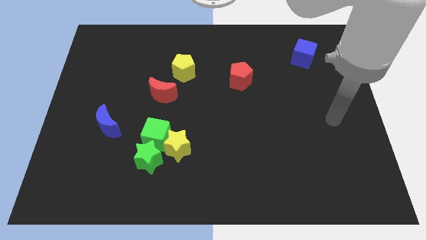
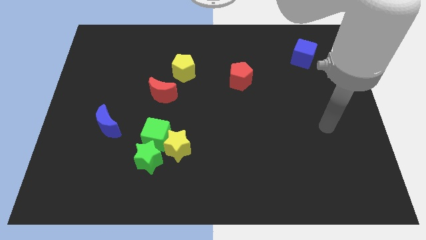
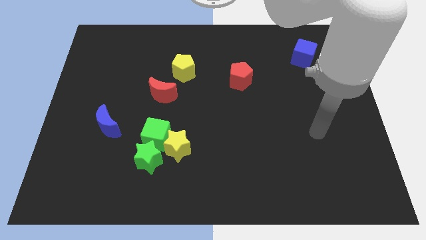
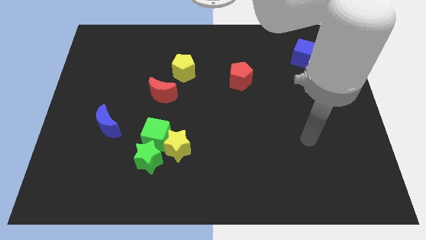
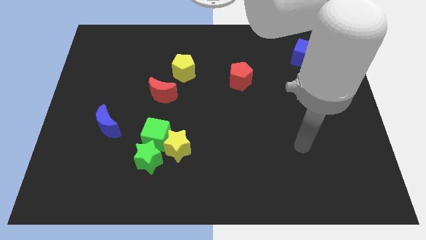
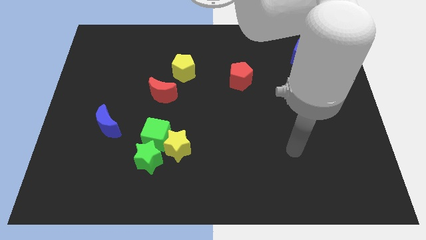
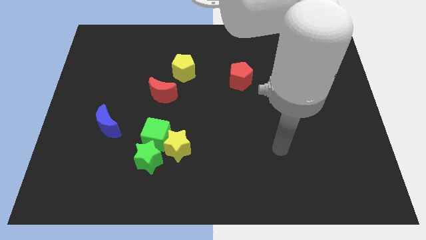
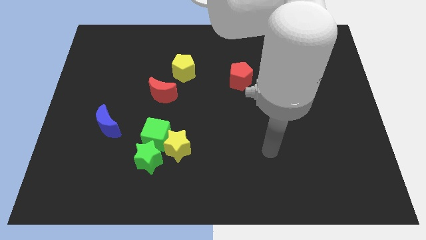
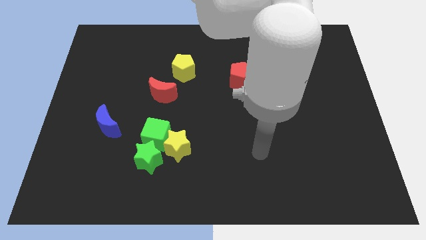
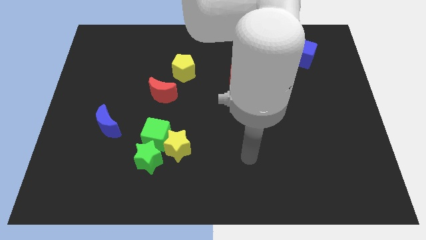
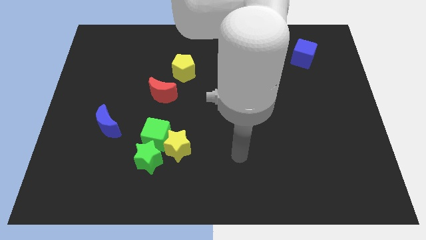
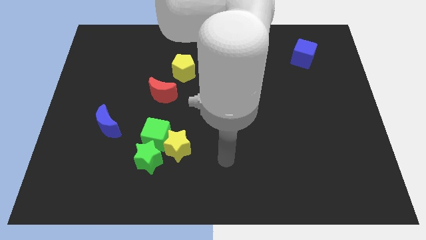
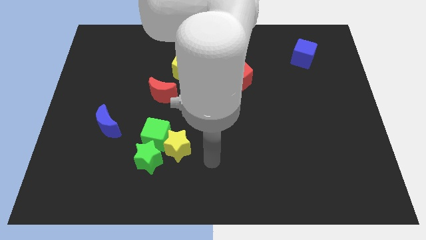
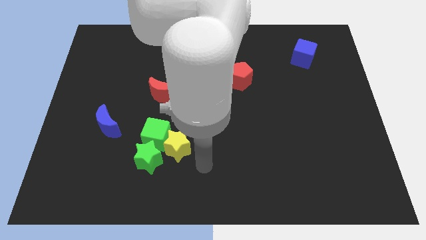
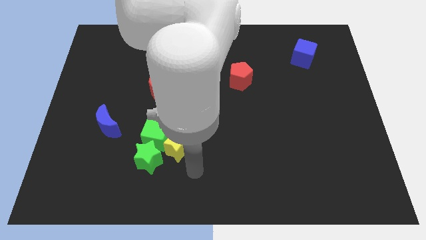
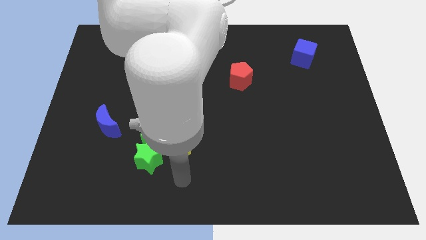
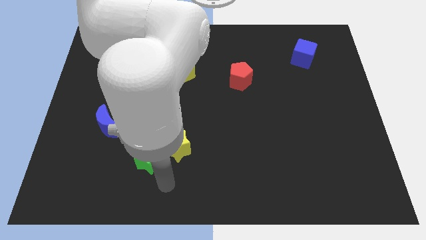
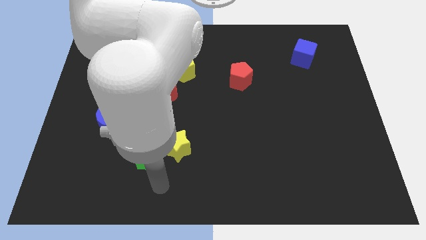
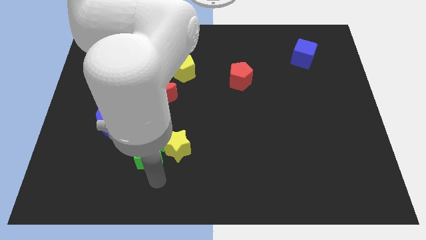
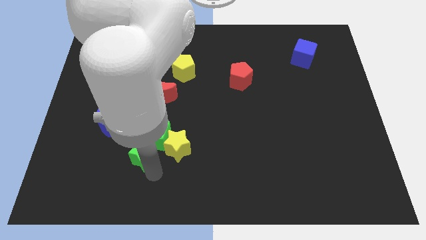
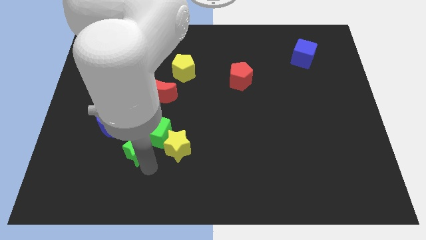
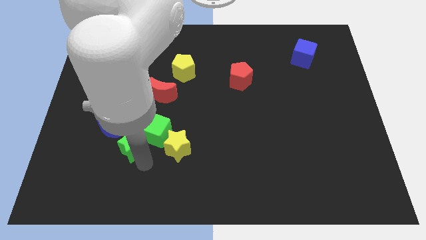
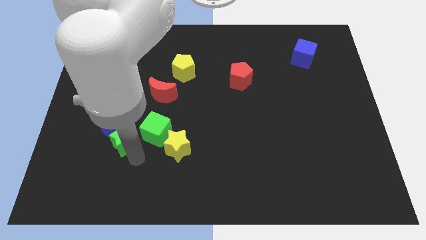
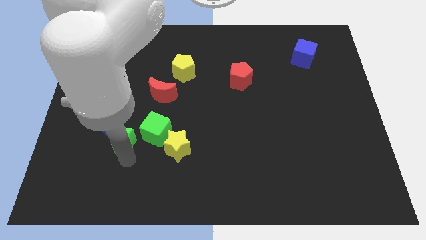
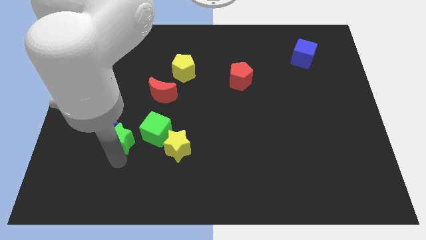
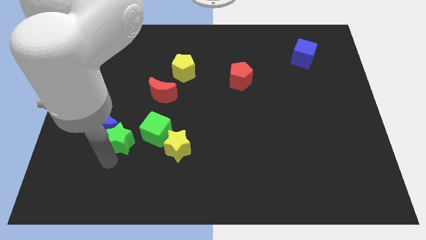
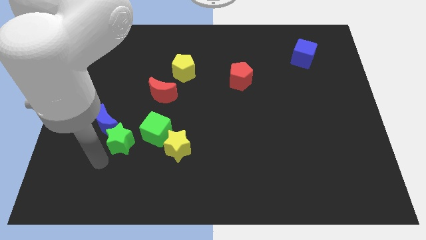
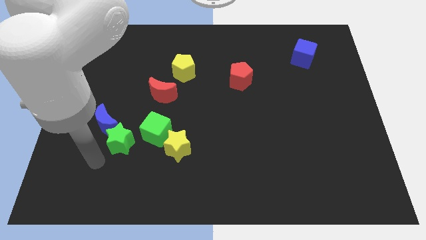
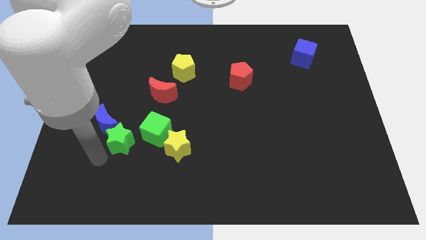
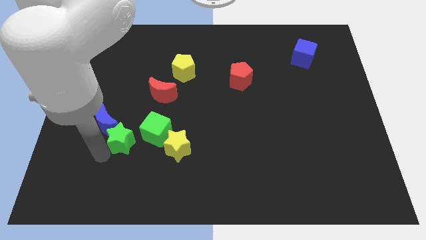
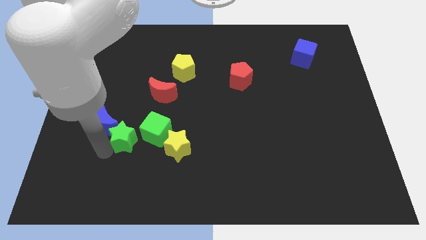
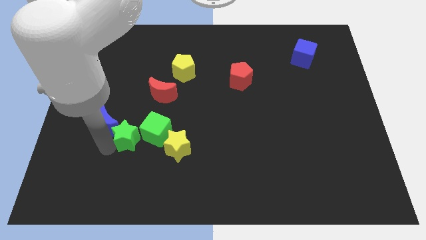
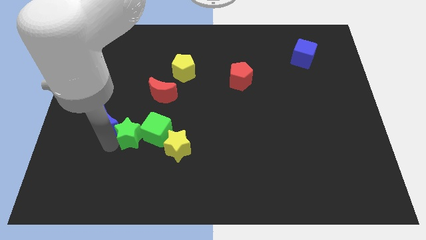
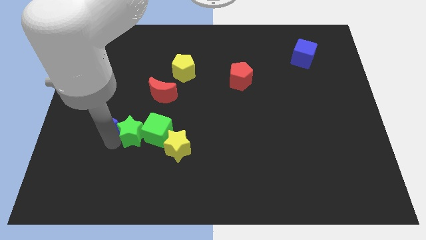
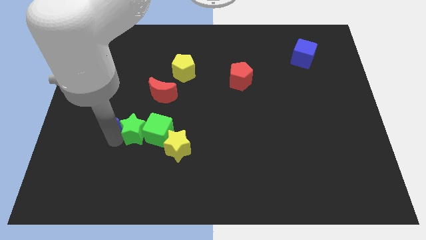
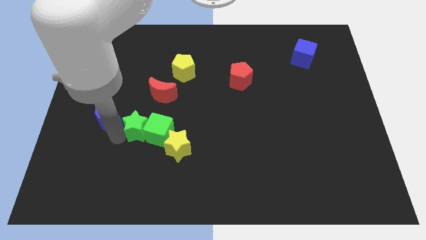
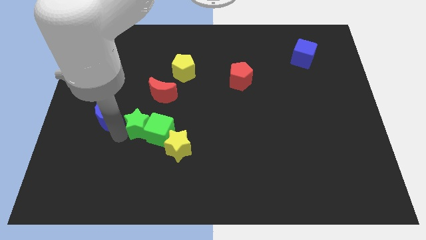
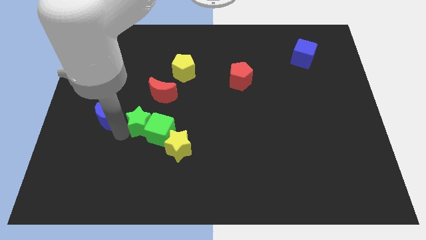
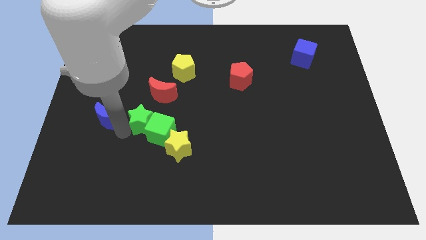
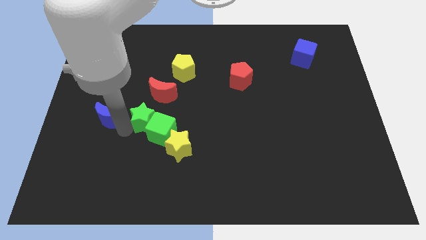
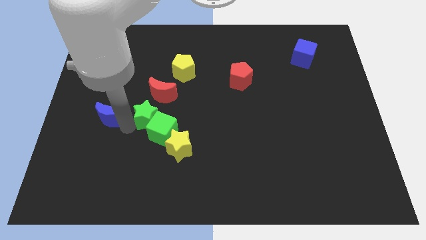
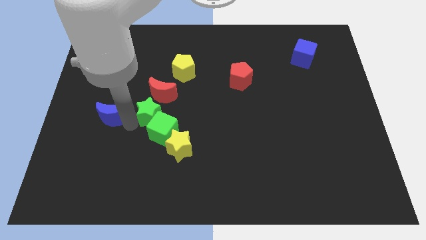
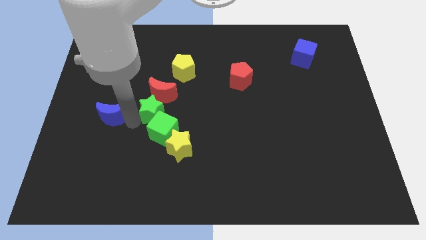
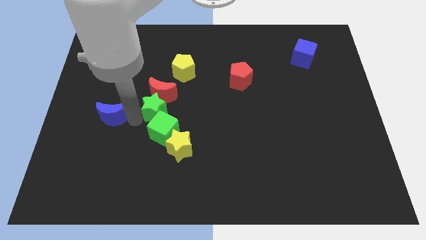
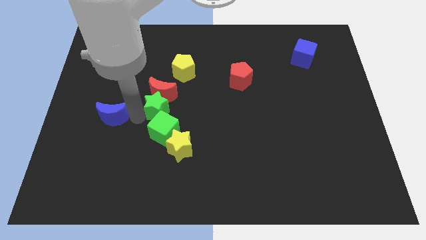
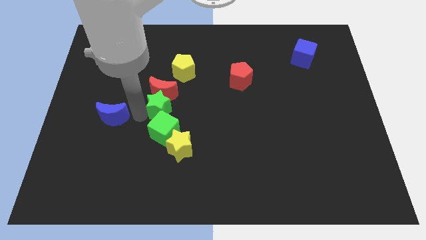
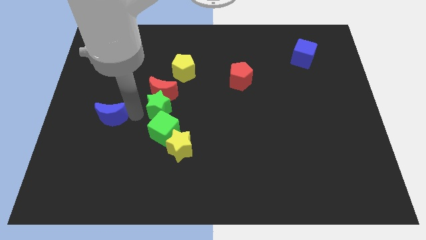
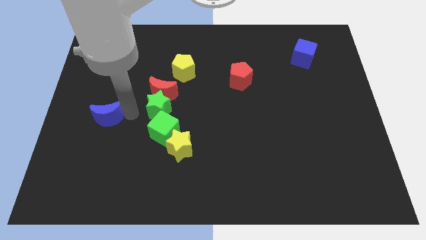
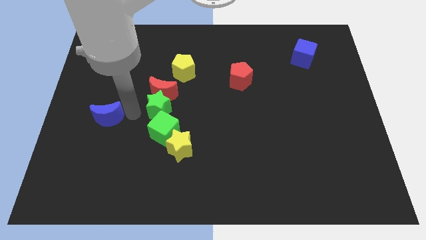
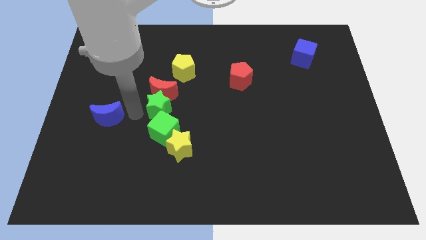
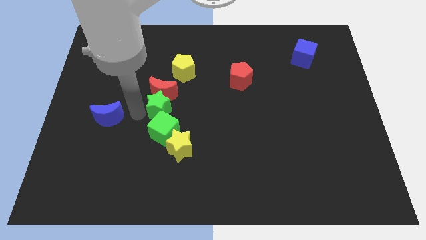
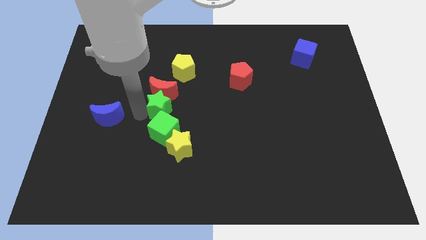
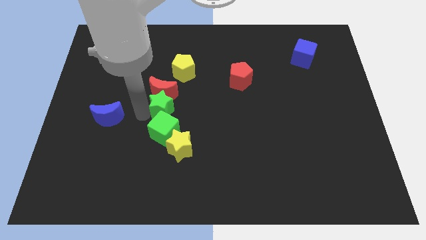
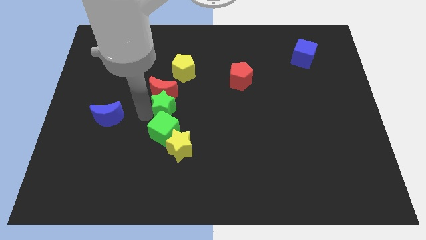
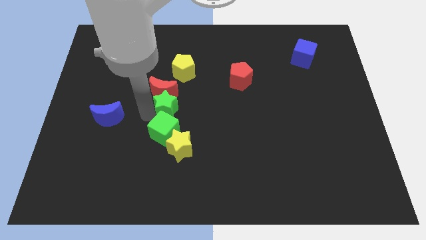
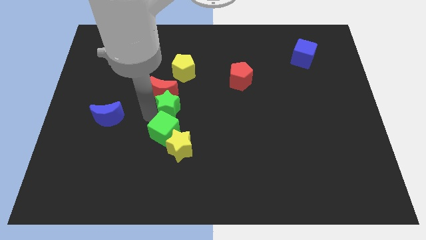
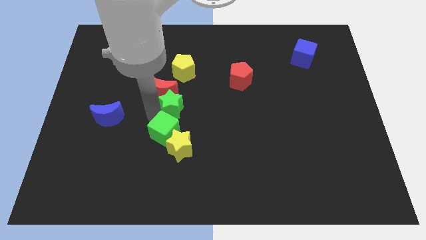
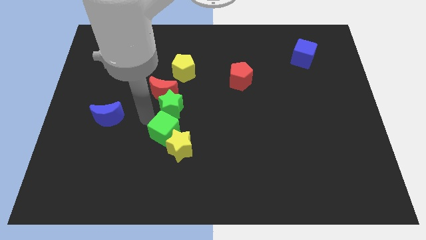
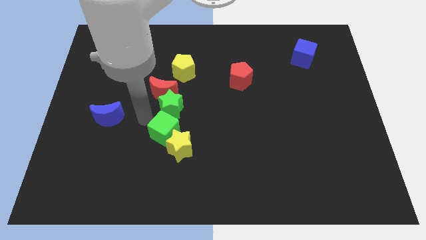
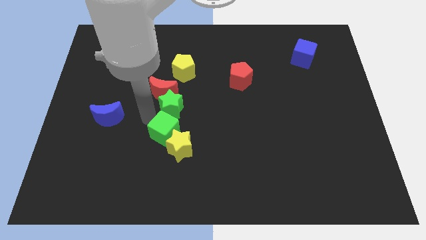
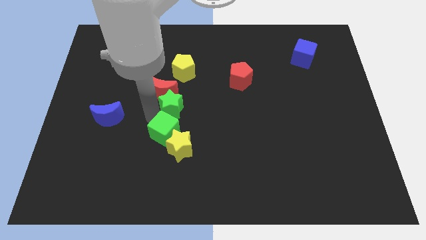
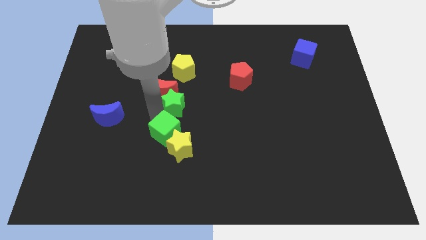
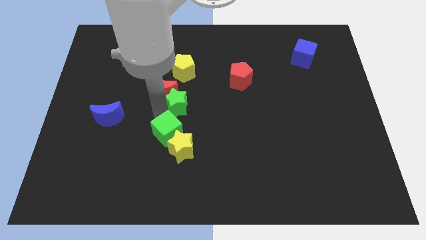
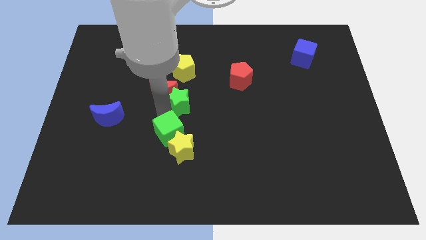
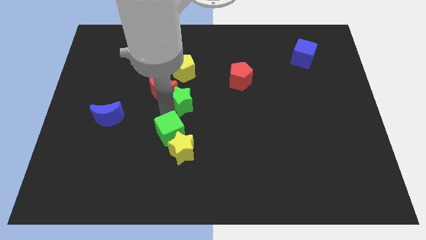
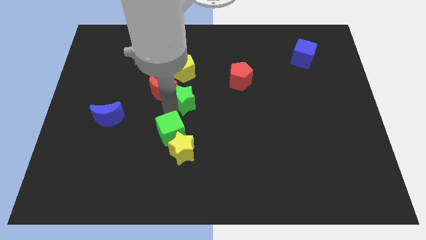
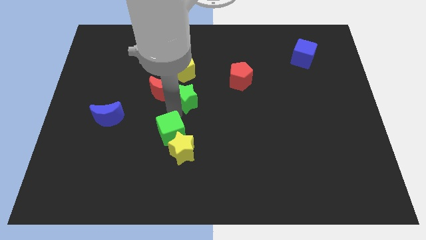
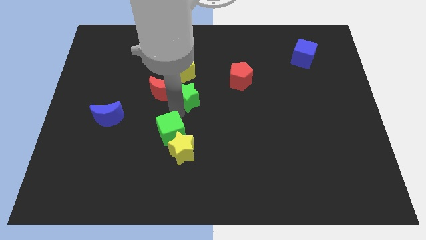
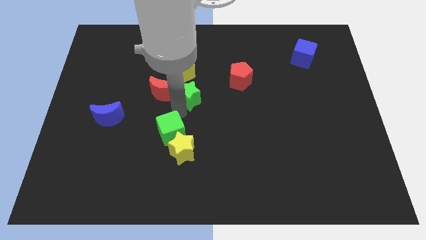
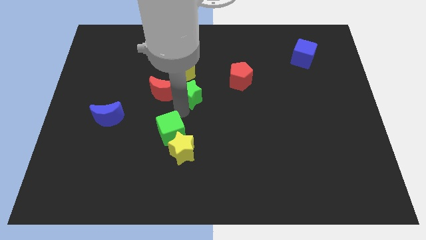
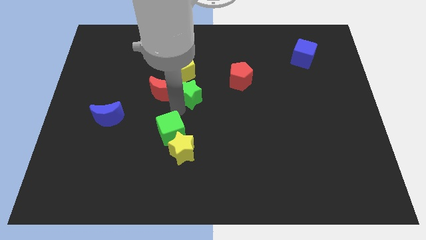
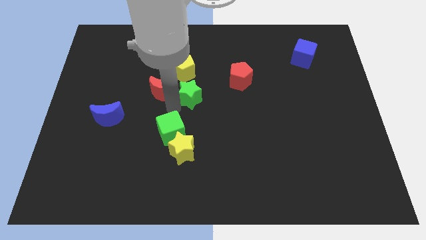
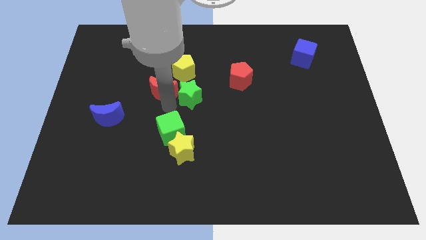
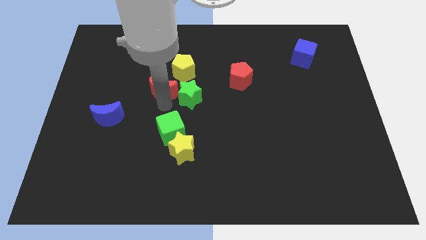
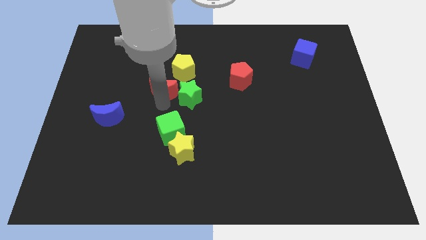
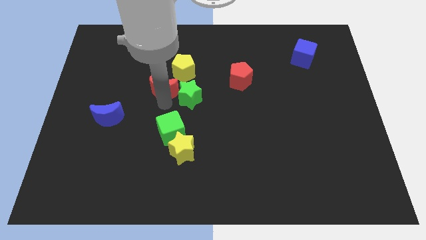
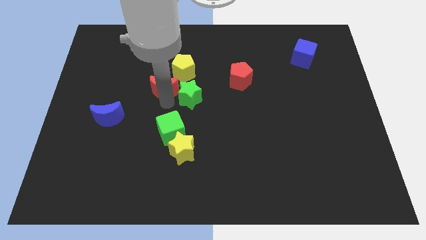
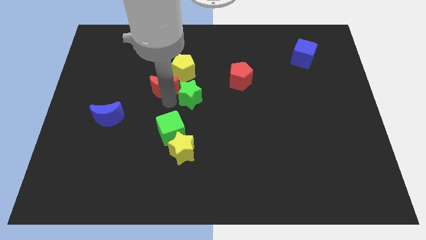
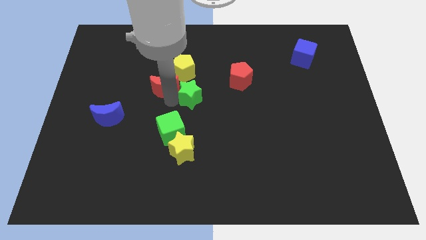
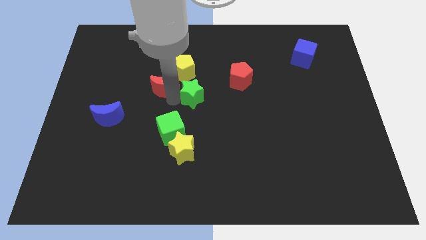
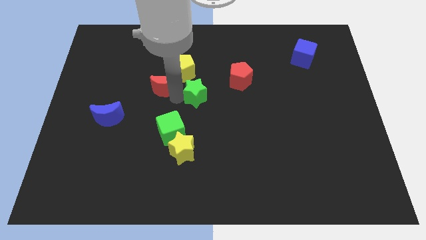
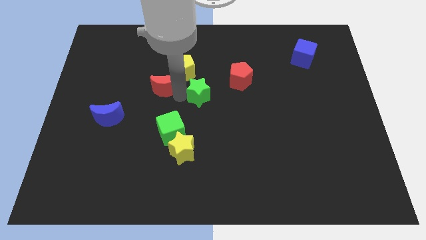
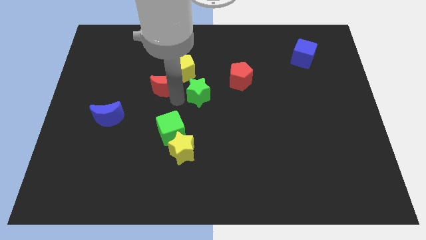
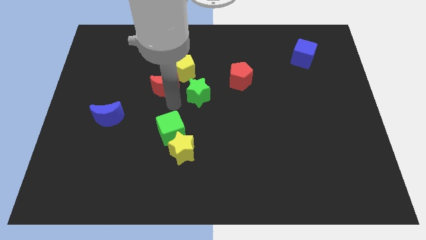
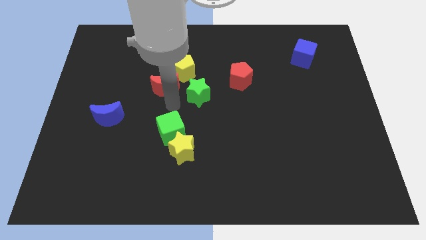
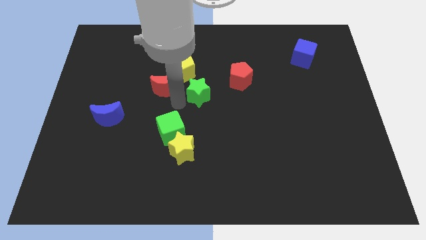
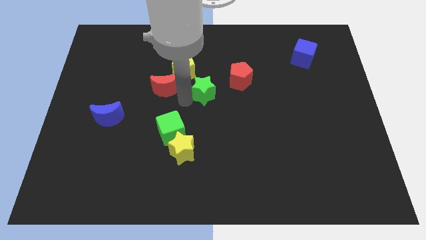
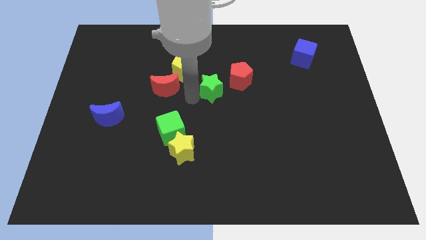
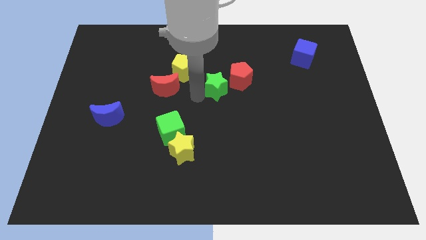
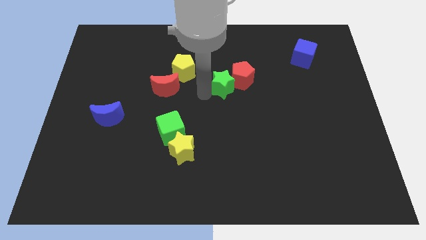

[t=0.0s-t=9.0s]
slide the green star towards the red pentagon
